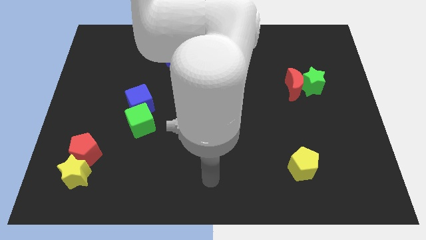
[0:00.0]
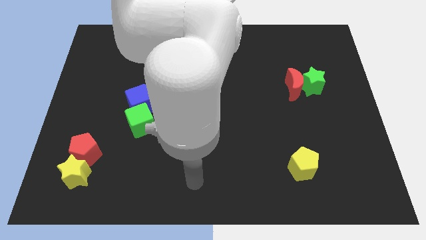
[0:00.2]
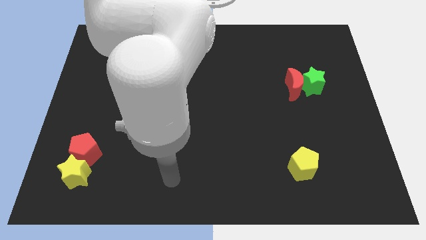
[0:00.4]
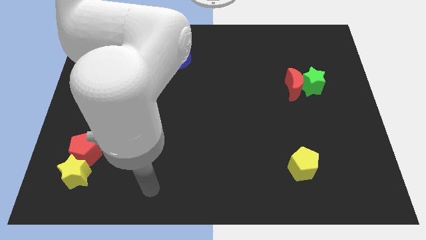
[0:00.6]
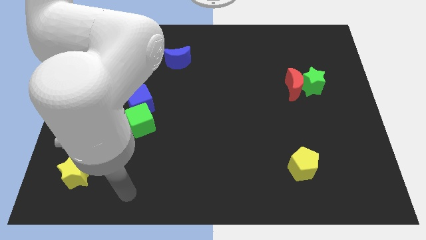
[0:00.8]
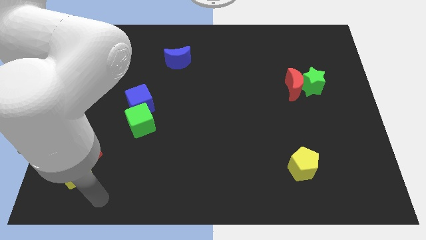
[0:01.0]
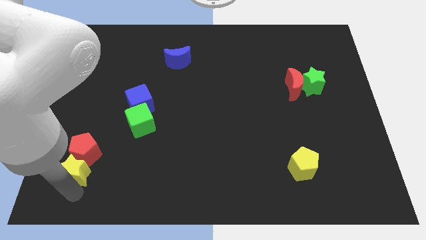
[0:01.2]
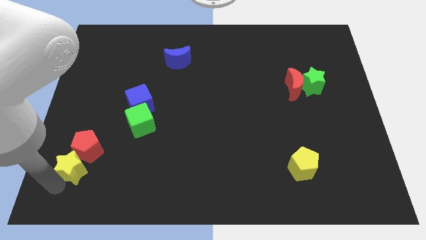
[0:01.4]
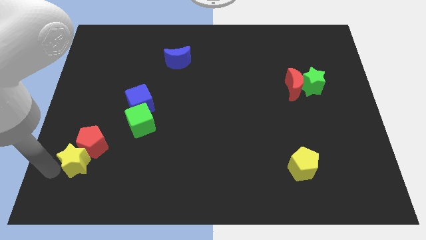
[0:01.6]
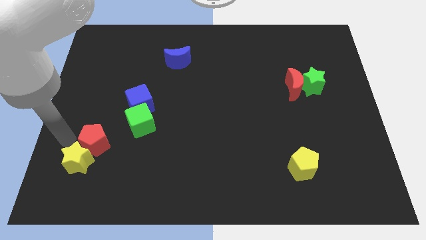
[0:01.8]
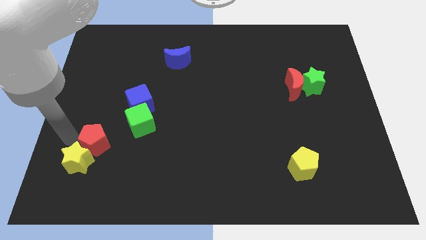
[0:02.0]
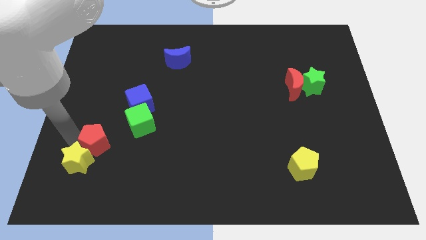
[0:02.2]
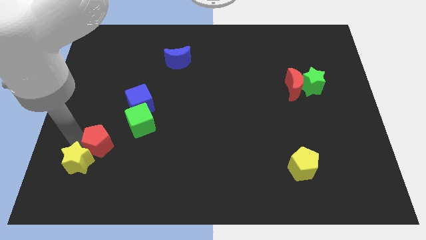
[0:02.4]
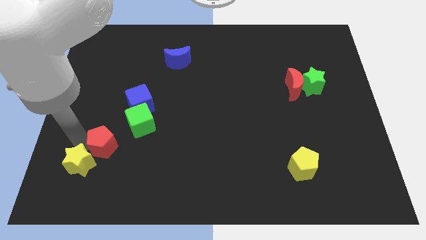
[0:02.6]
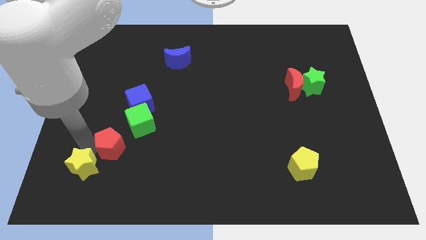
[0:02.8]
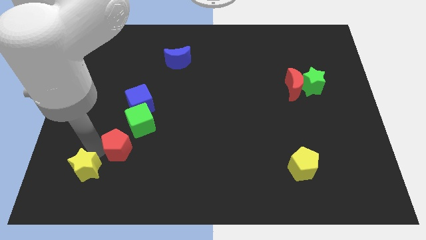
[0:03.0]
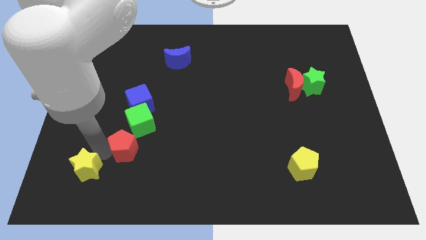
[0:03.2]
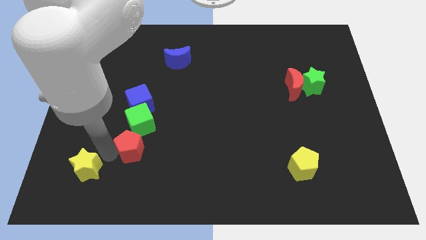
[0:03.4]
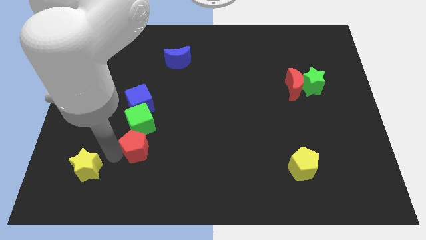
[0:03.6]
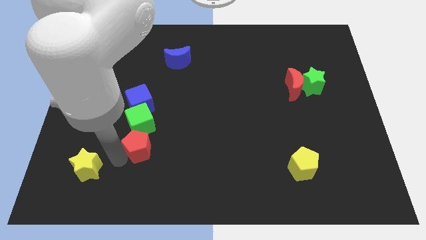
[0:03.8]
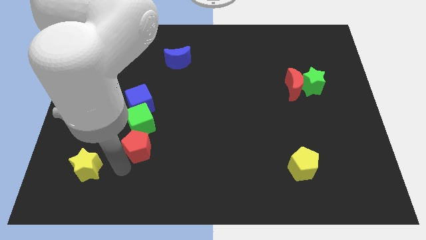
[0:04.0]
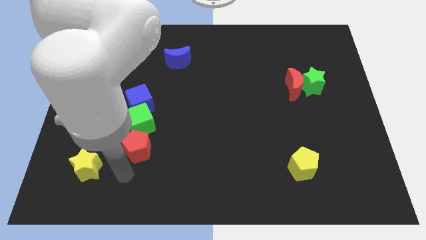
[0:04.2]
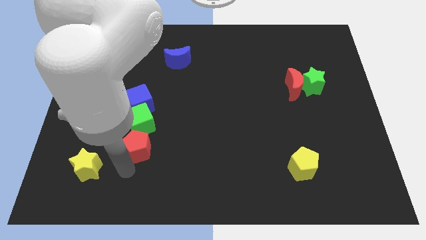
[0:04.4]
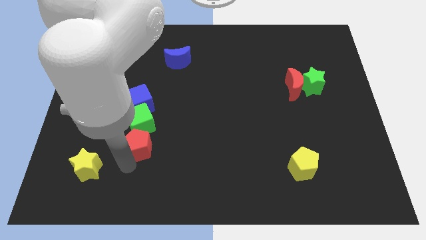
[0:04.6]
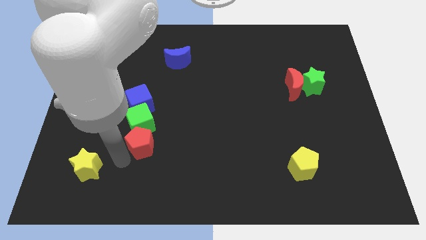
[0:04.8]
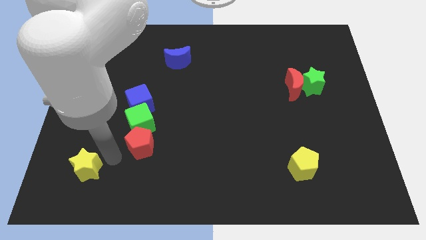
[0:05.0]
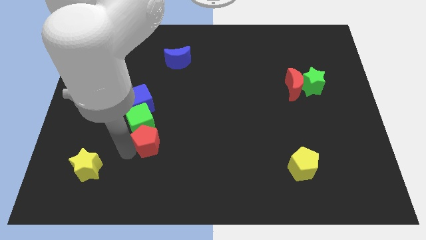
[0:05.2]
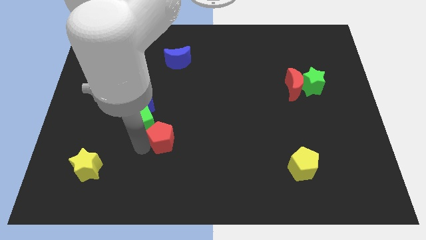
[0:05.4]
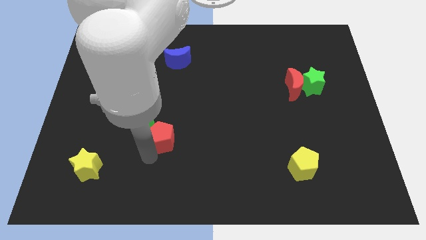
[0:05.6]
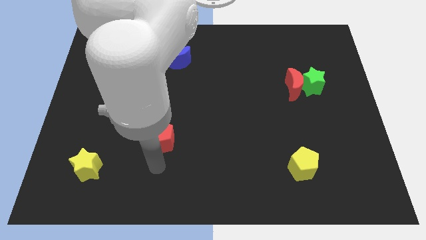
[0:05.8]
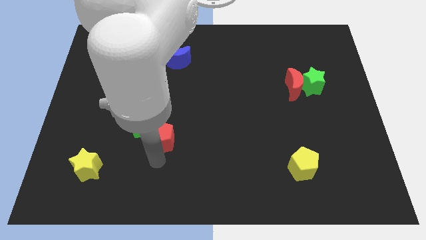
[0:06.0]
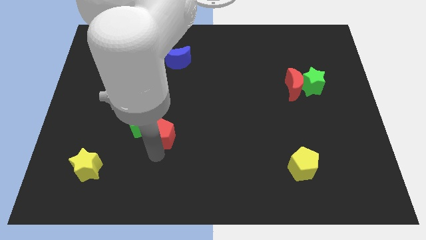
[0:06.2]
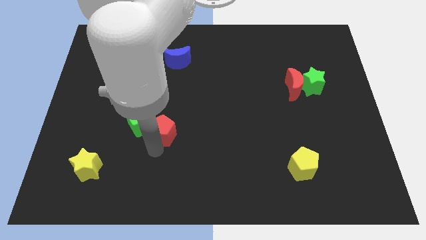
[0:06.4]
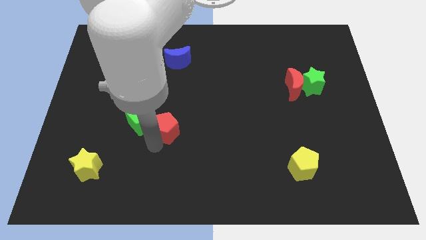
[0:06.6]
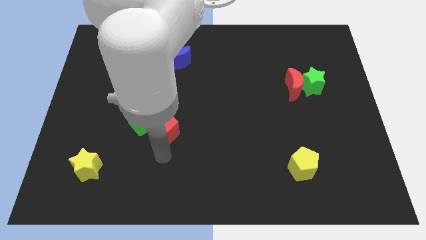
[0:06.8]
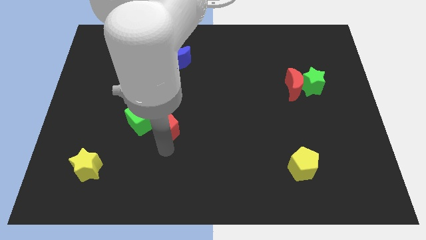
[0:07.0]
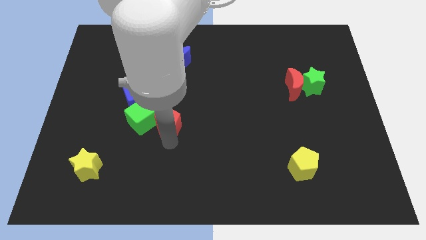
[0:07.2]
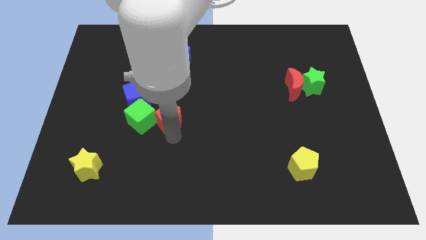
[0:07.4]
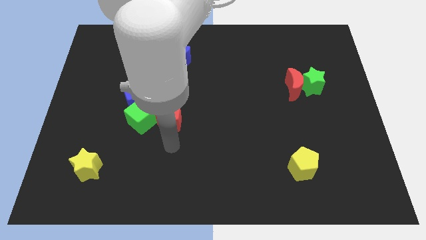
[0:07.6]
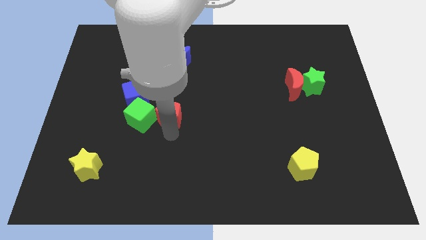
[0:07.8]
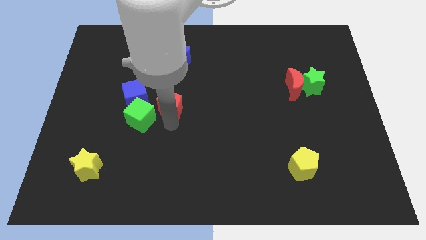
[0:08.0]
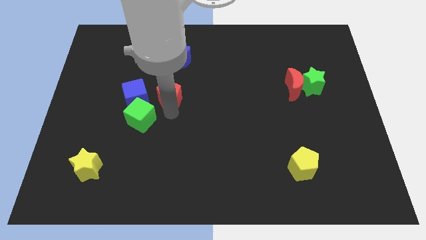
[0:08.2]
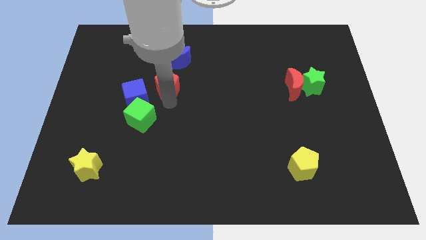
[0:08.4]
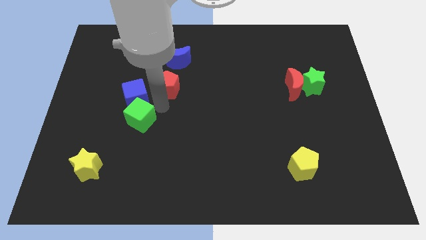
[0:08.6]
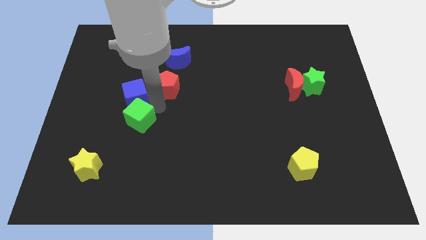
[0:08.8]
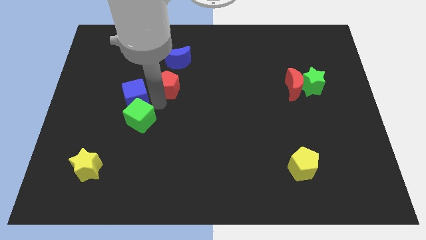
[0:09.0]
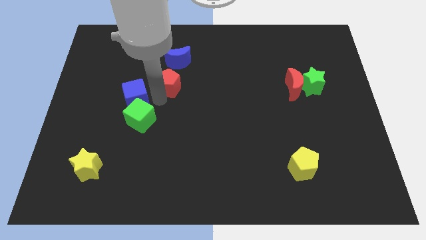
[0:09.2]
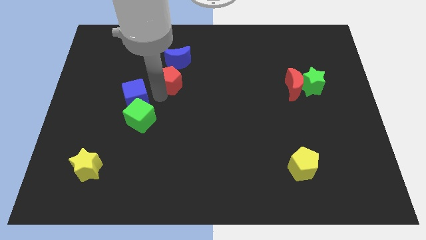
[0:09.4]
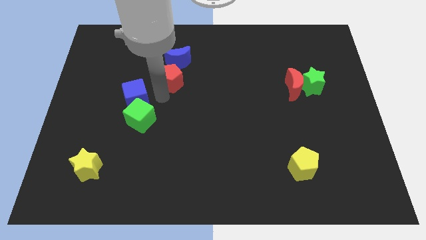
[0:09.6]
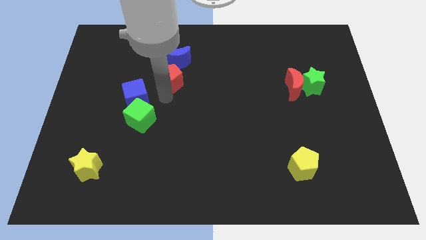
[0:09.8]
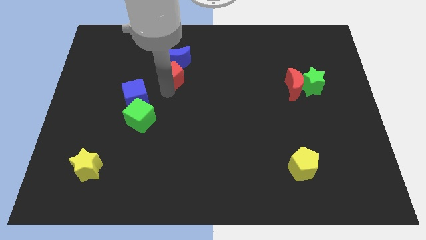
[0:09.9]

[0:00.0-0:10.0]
move the red pentagon towards the blue moon

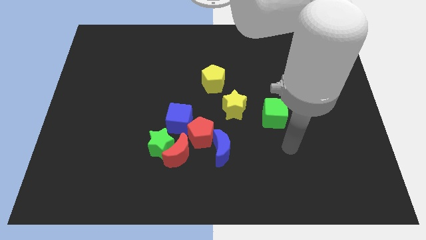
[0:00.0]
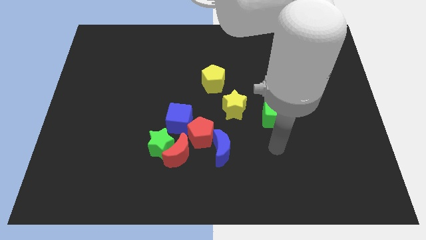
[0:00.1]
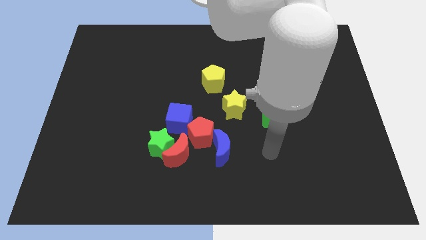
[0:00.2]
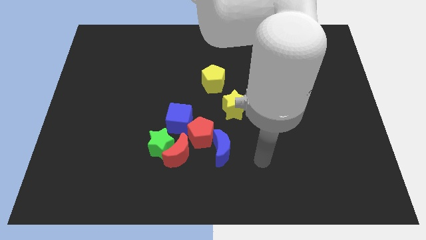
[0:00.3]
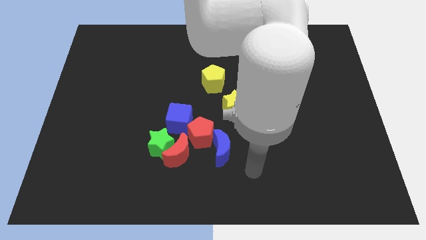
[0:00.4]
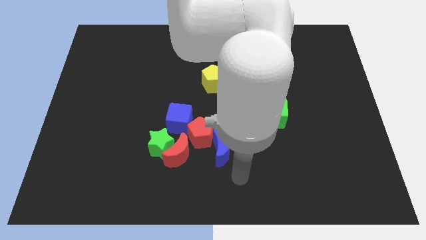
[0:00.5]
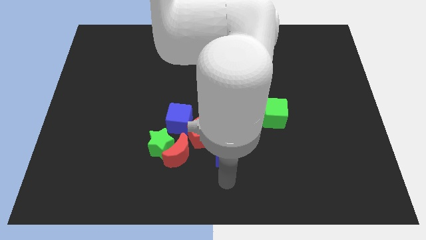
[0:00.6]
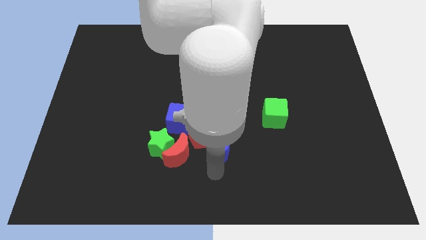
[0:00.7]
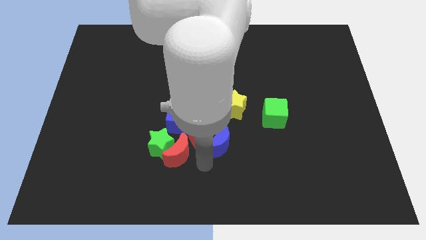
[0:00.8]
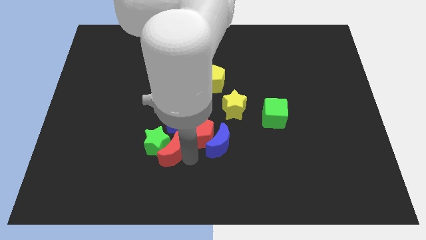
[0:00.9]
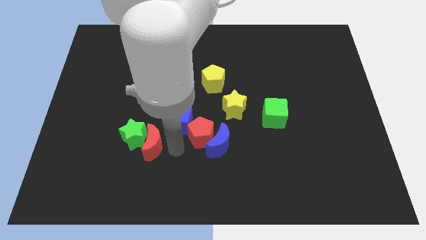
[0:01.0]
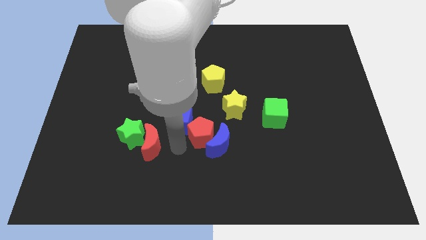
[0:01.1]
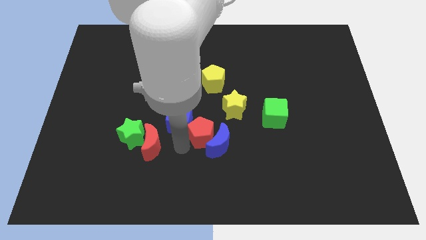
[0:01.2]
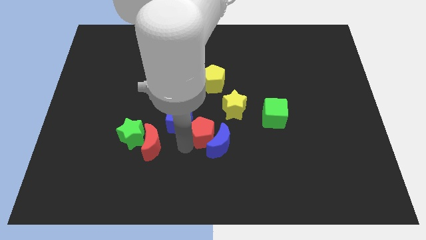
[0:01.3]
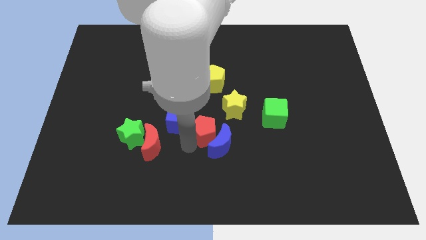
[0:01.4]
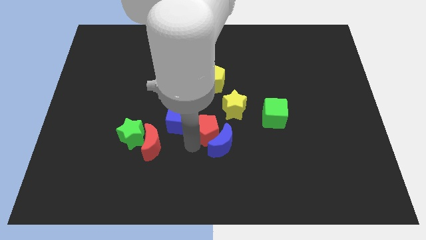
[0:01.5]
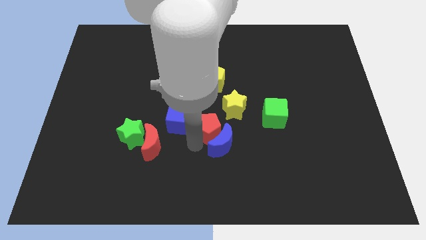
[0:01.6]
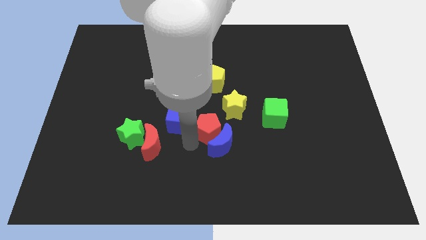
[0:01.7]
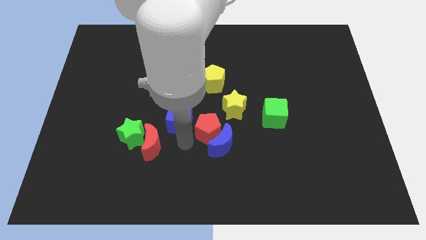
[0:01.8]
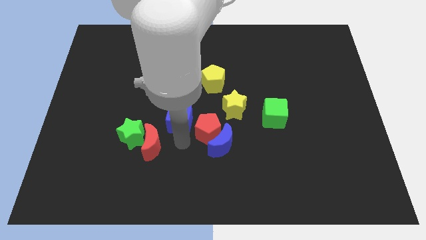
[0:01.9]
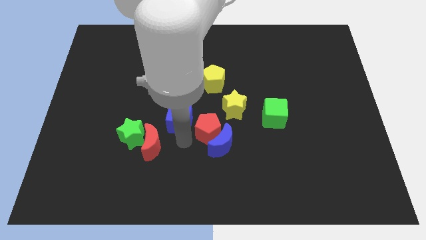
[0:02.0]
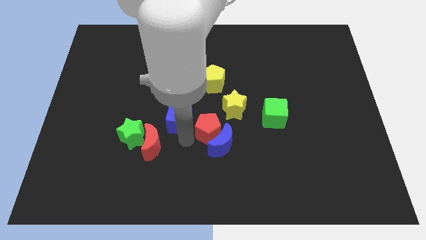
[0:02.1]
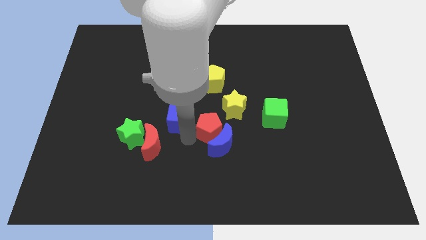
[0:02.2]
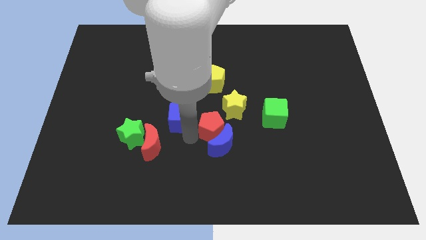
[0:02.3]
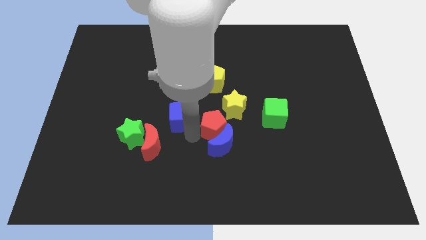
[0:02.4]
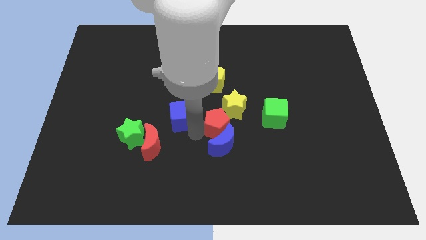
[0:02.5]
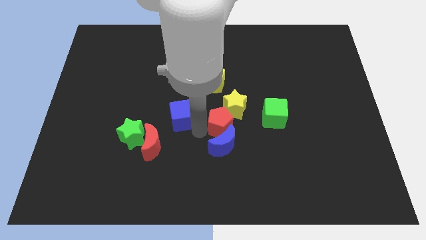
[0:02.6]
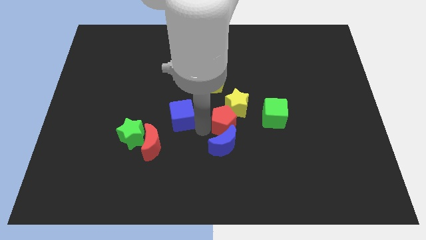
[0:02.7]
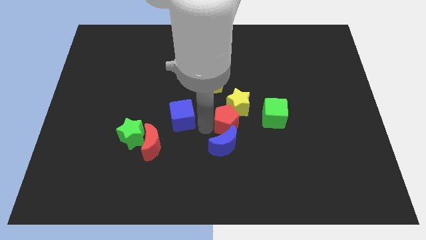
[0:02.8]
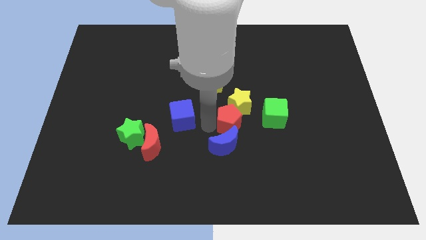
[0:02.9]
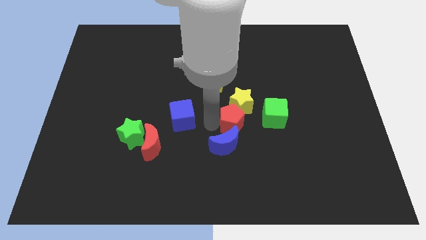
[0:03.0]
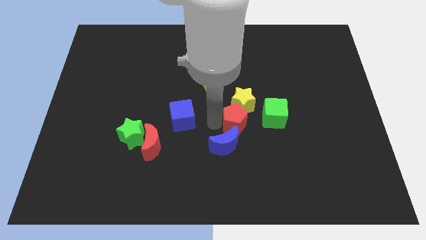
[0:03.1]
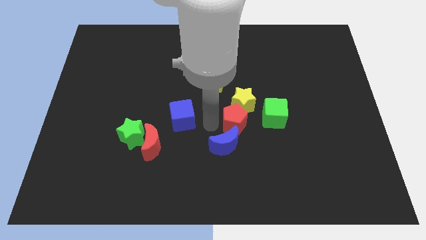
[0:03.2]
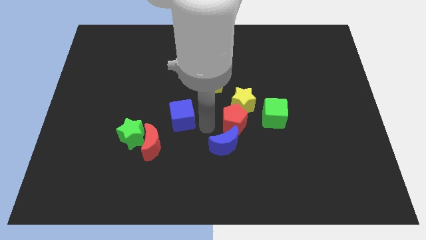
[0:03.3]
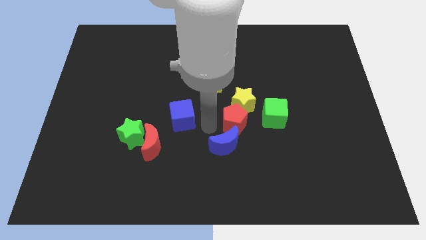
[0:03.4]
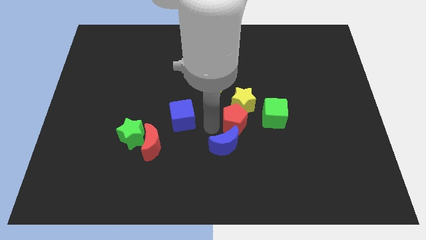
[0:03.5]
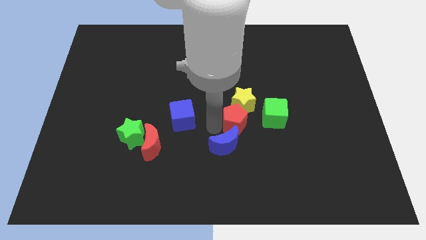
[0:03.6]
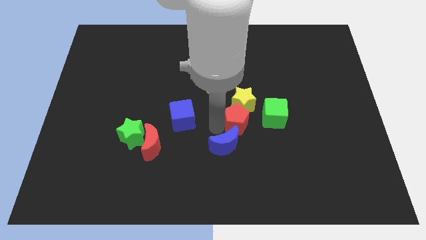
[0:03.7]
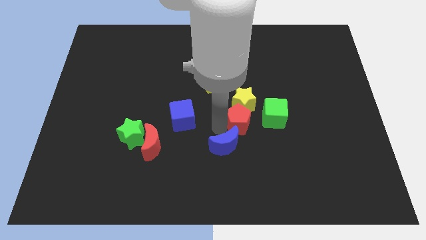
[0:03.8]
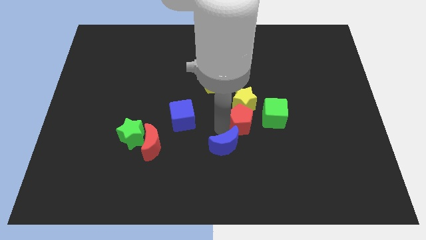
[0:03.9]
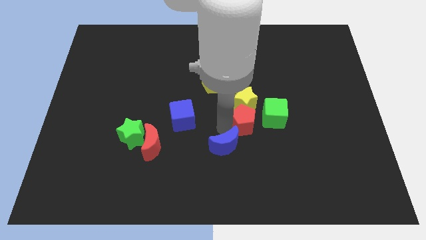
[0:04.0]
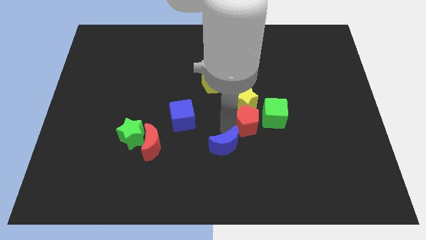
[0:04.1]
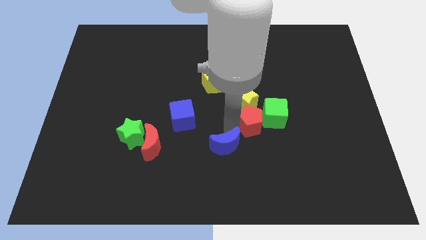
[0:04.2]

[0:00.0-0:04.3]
put the red pentagon towards the green cube
